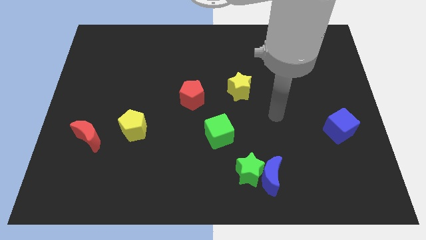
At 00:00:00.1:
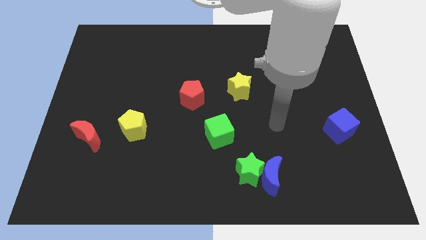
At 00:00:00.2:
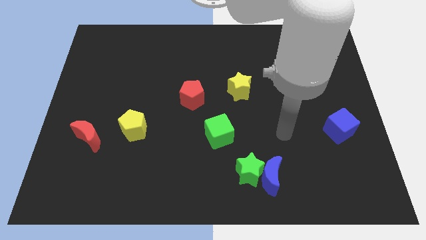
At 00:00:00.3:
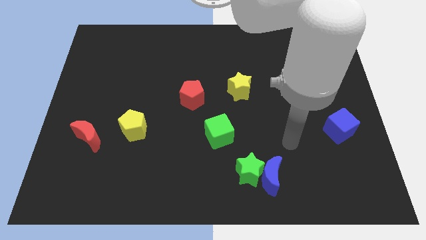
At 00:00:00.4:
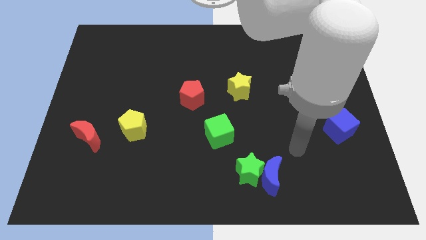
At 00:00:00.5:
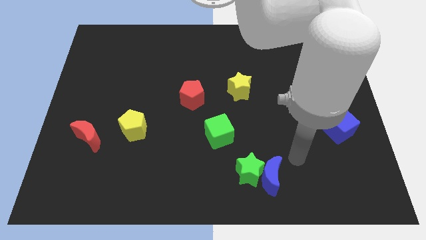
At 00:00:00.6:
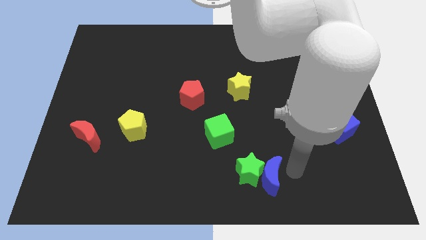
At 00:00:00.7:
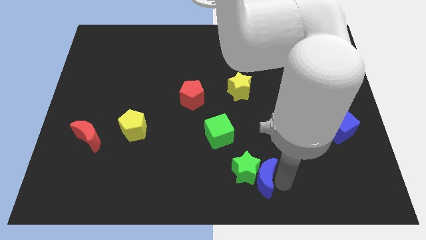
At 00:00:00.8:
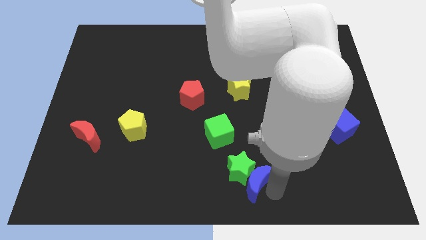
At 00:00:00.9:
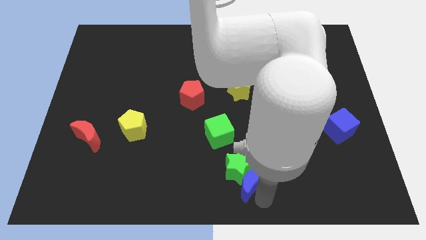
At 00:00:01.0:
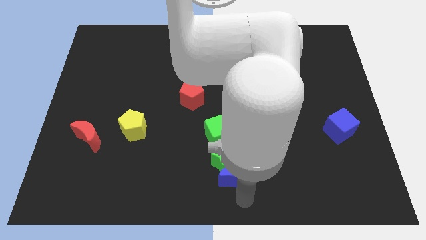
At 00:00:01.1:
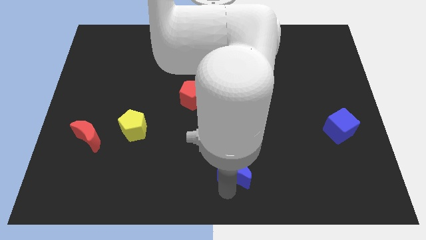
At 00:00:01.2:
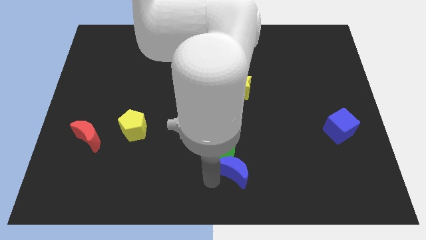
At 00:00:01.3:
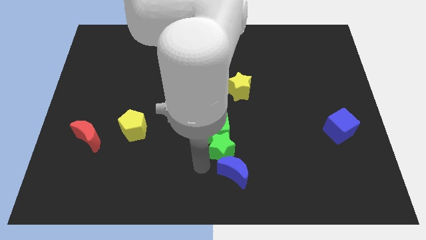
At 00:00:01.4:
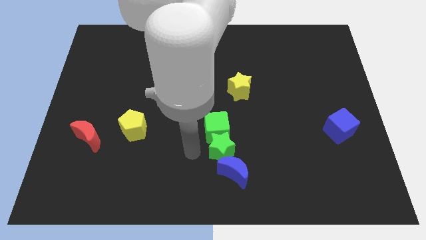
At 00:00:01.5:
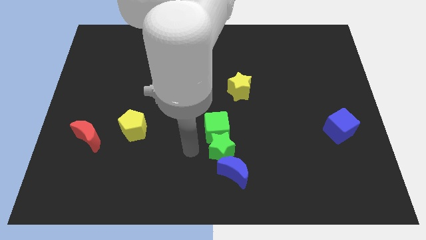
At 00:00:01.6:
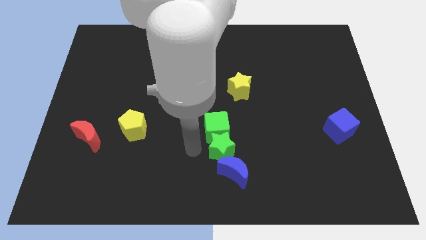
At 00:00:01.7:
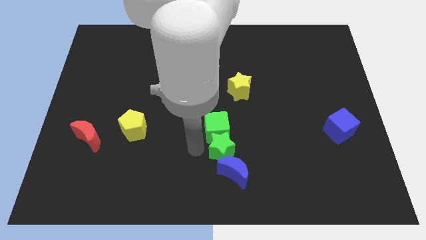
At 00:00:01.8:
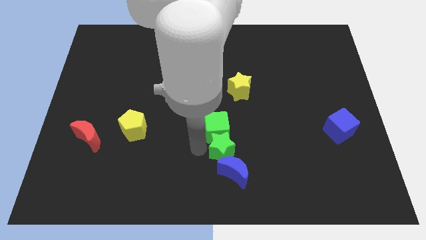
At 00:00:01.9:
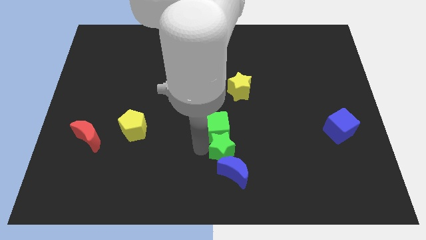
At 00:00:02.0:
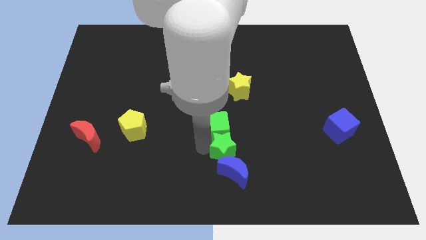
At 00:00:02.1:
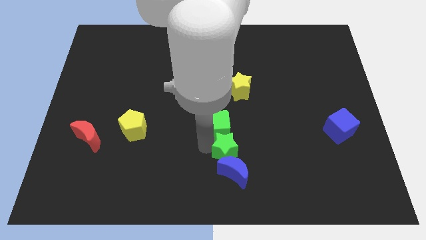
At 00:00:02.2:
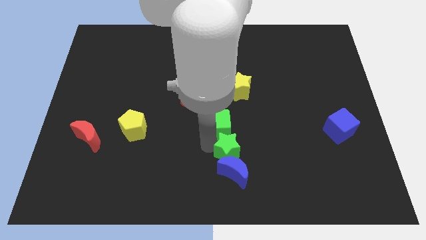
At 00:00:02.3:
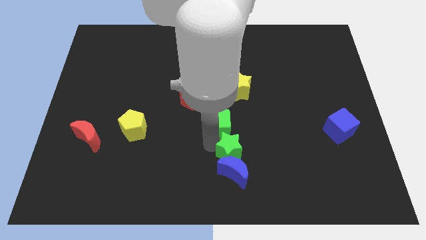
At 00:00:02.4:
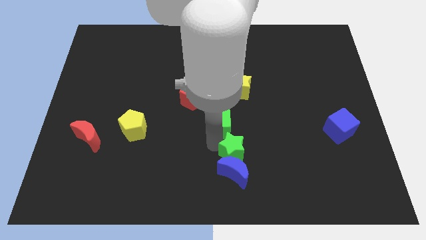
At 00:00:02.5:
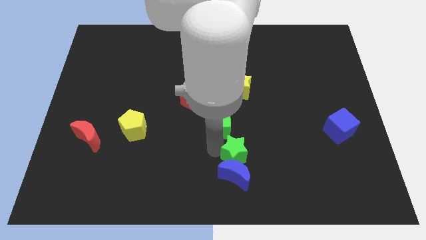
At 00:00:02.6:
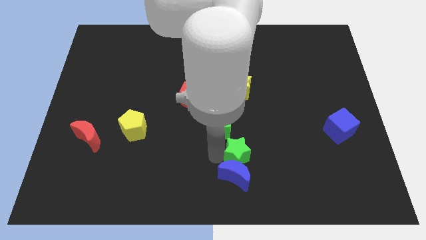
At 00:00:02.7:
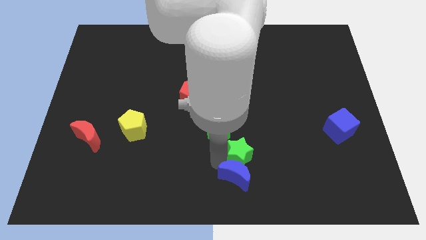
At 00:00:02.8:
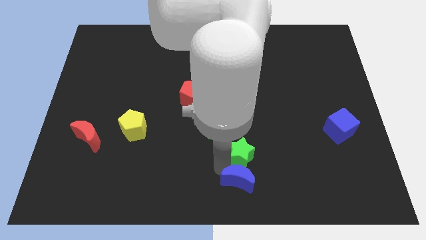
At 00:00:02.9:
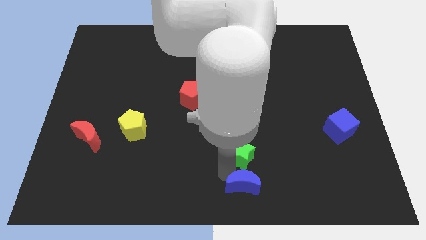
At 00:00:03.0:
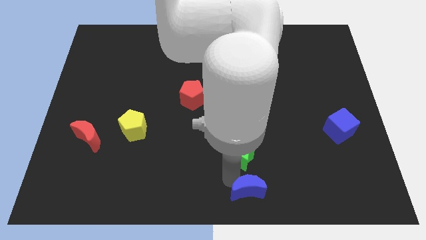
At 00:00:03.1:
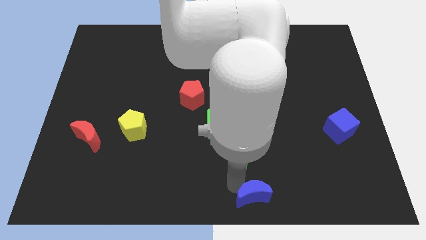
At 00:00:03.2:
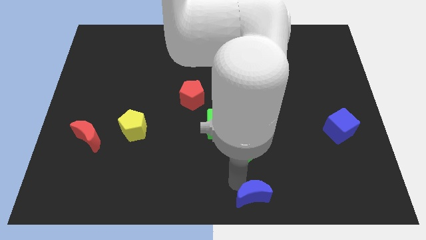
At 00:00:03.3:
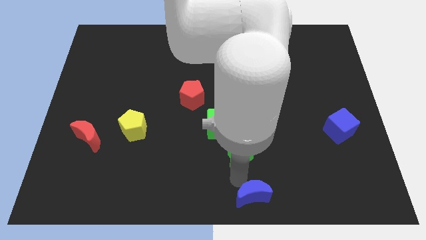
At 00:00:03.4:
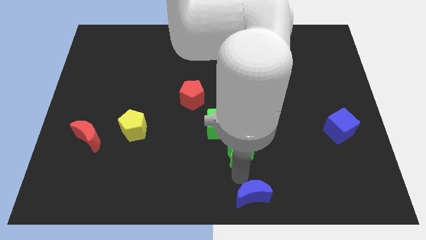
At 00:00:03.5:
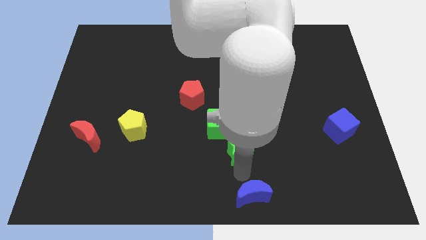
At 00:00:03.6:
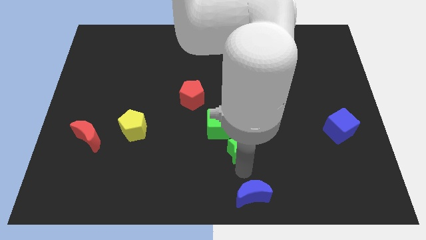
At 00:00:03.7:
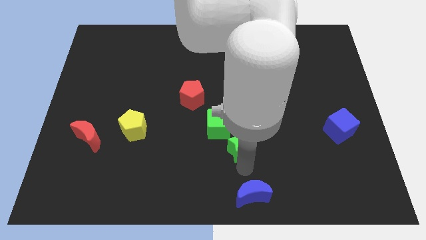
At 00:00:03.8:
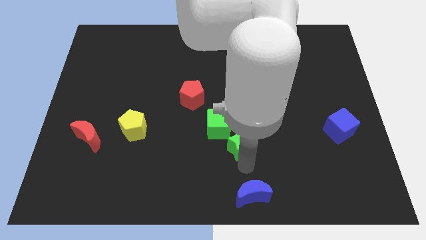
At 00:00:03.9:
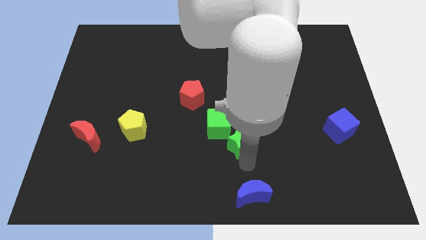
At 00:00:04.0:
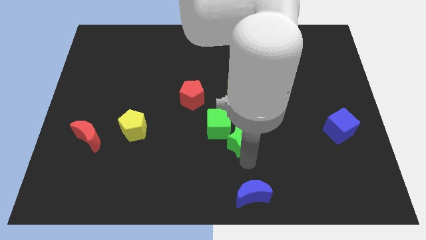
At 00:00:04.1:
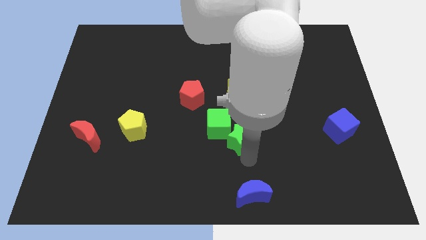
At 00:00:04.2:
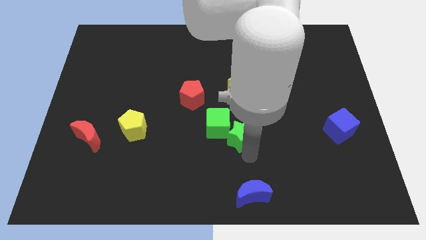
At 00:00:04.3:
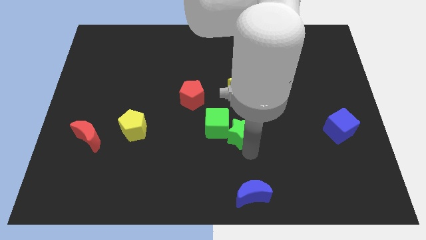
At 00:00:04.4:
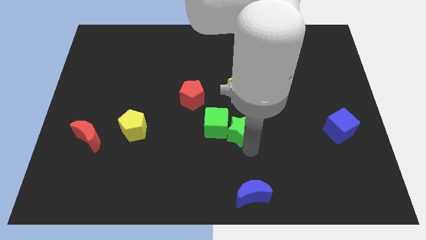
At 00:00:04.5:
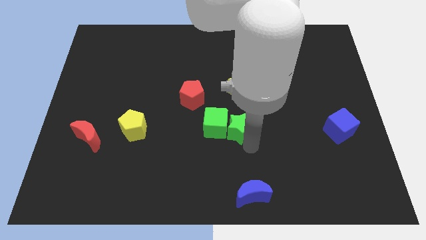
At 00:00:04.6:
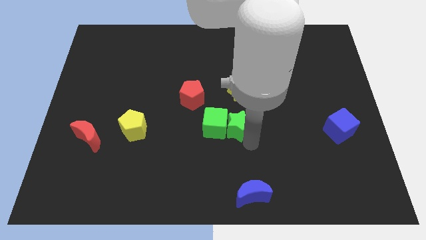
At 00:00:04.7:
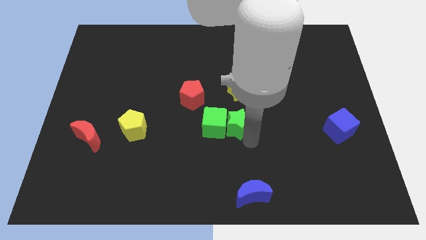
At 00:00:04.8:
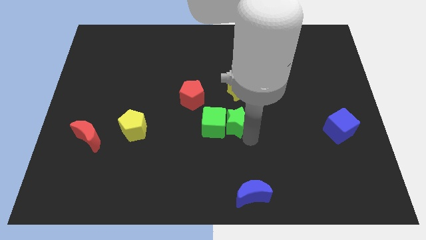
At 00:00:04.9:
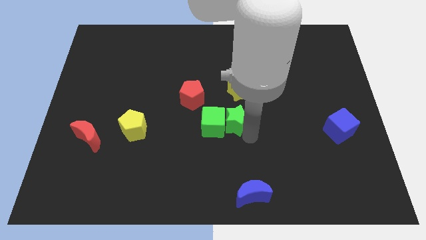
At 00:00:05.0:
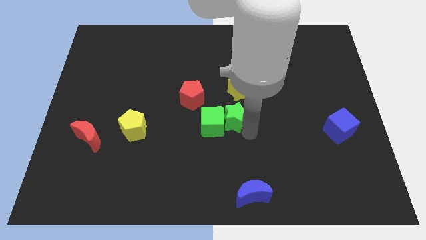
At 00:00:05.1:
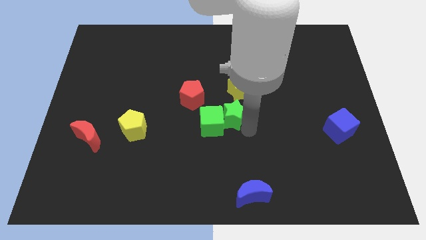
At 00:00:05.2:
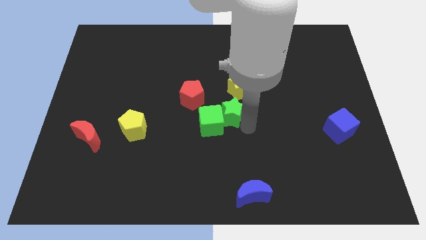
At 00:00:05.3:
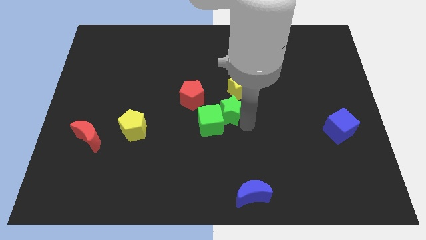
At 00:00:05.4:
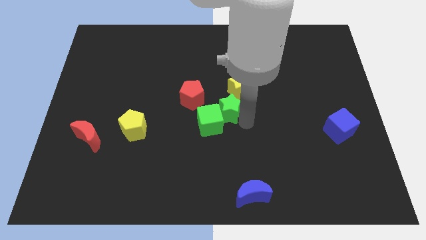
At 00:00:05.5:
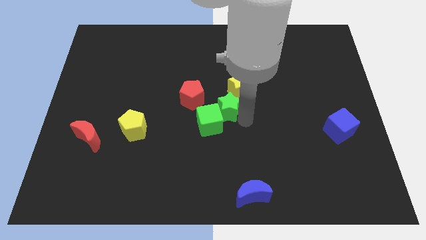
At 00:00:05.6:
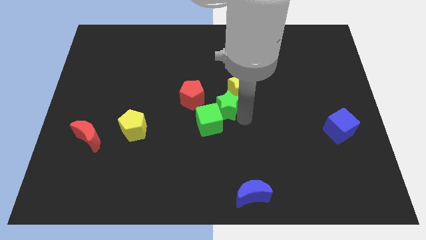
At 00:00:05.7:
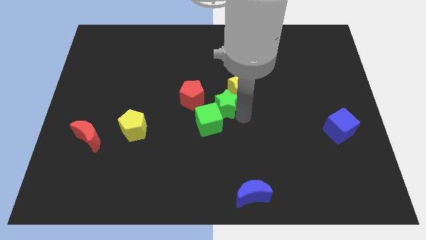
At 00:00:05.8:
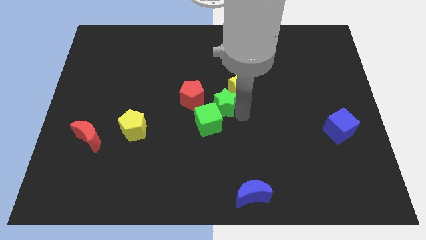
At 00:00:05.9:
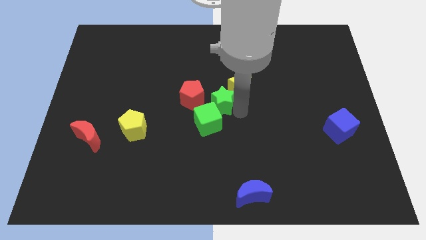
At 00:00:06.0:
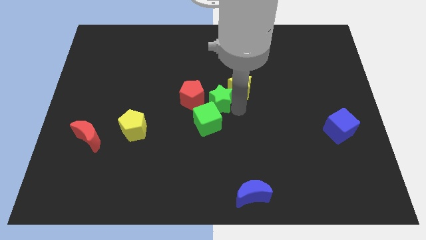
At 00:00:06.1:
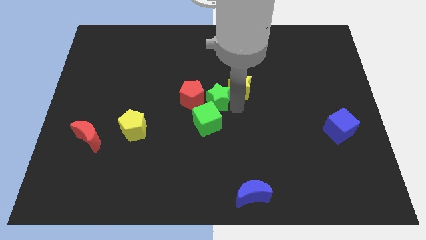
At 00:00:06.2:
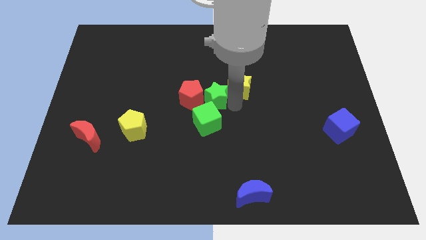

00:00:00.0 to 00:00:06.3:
move the green star towards the red pentagon
